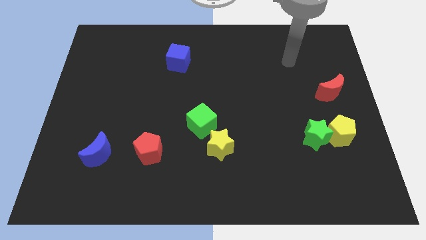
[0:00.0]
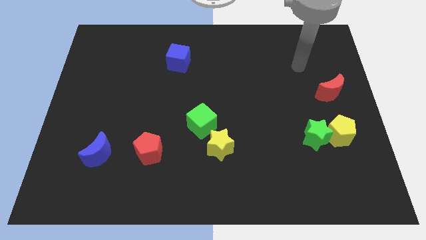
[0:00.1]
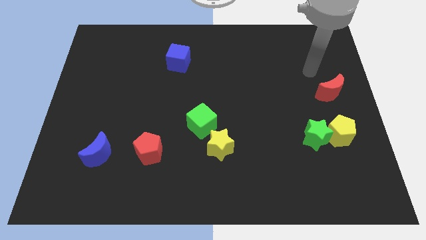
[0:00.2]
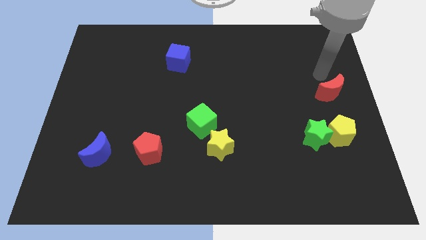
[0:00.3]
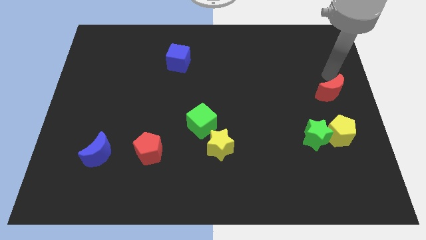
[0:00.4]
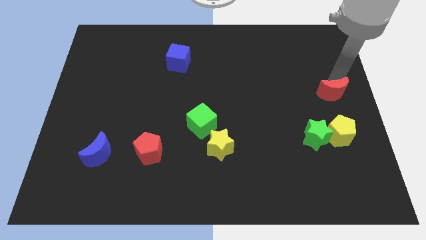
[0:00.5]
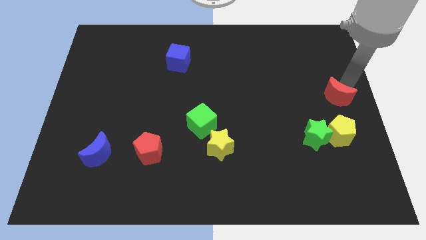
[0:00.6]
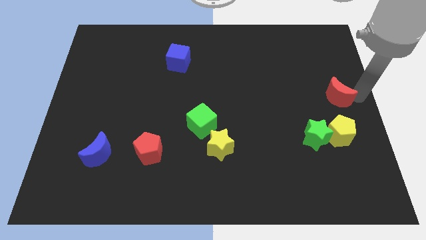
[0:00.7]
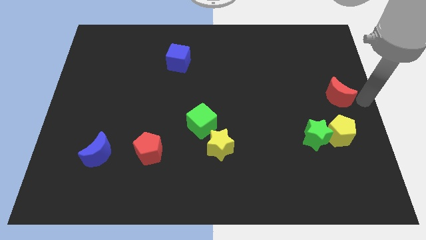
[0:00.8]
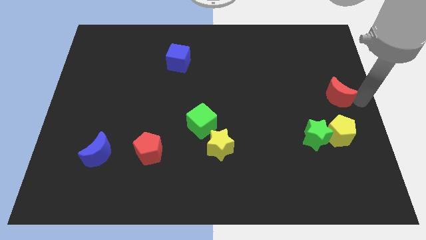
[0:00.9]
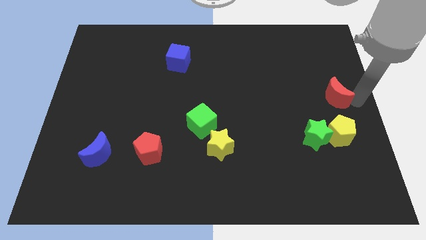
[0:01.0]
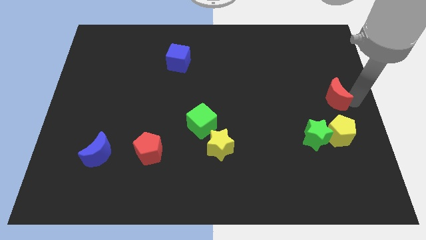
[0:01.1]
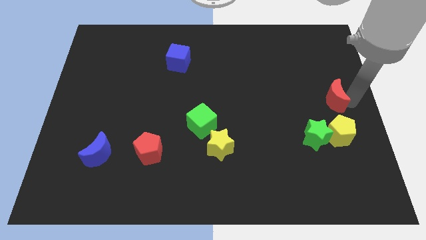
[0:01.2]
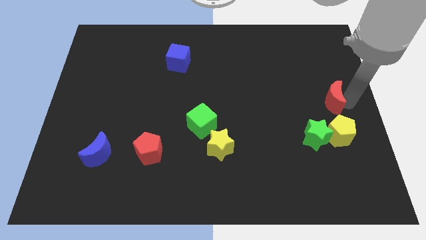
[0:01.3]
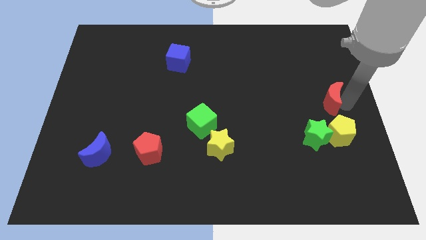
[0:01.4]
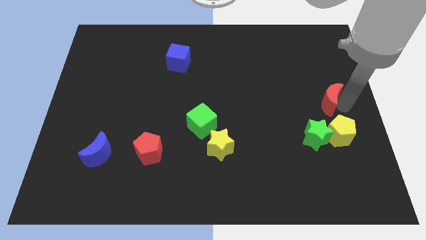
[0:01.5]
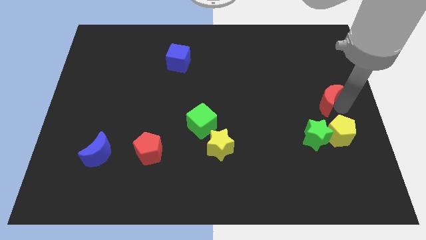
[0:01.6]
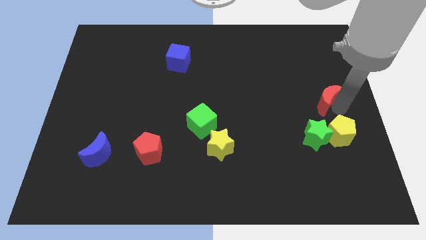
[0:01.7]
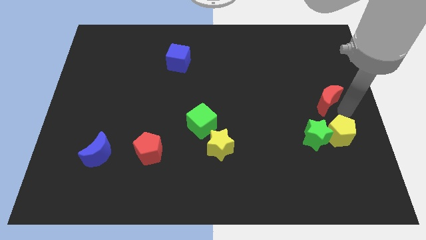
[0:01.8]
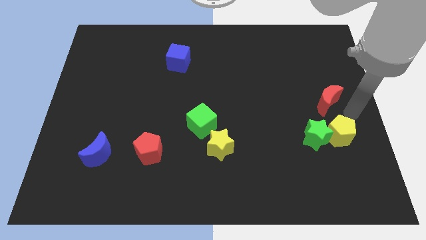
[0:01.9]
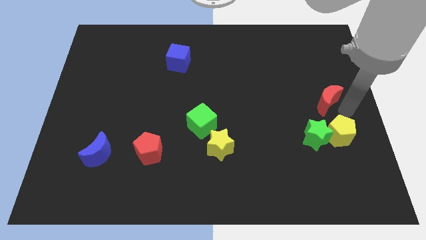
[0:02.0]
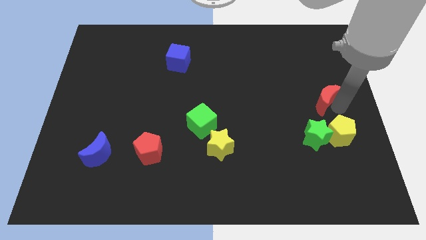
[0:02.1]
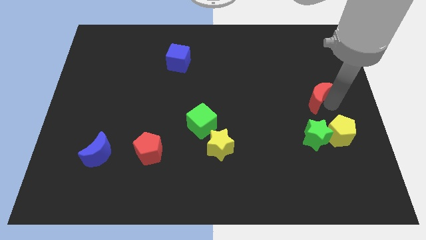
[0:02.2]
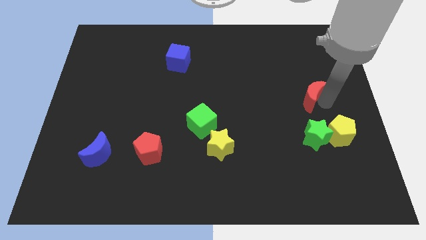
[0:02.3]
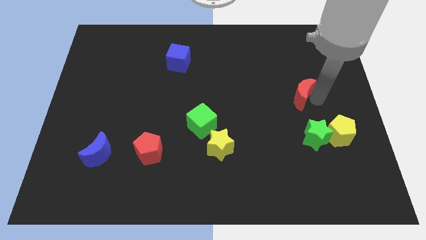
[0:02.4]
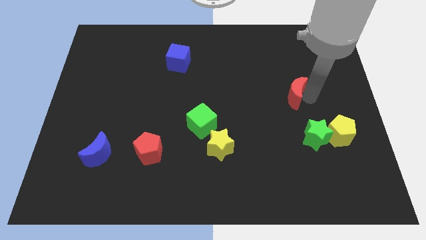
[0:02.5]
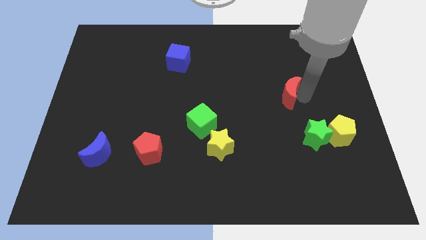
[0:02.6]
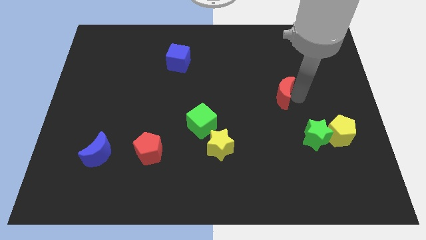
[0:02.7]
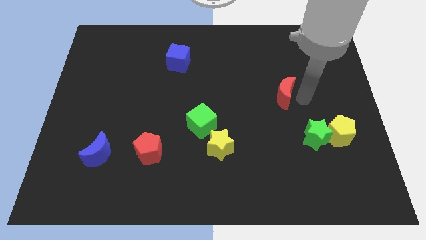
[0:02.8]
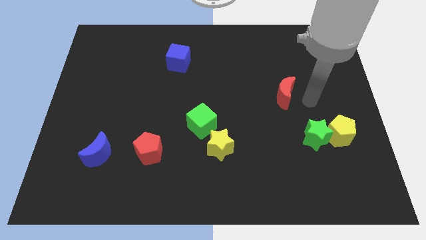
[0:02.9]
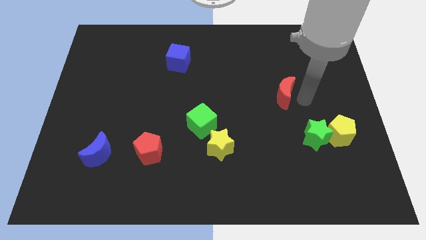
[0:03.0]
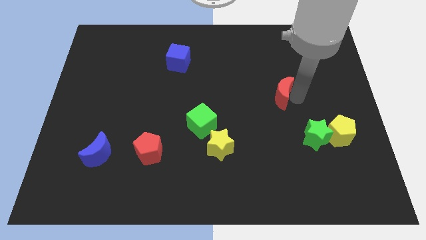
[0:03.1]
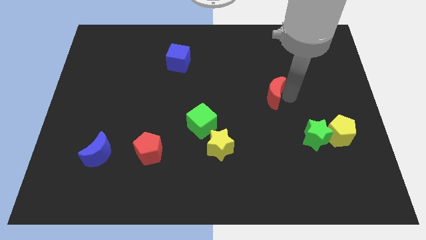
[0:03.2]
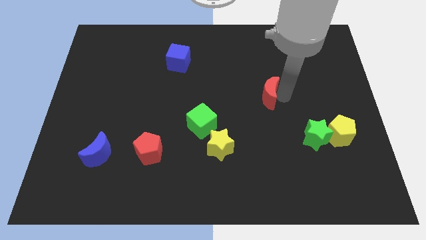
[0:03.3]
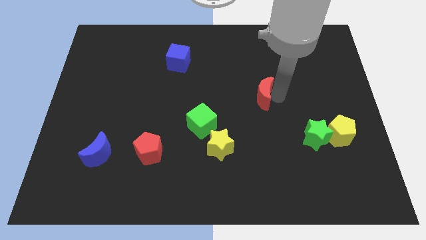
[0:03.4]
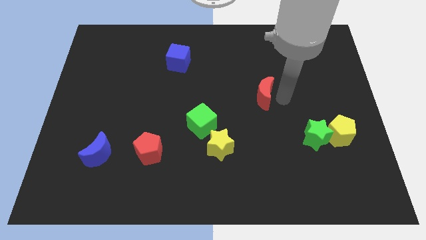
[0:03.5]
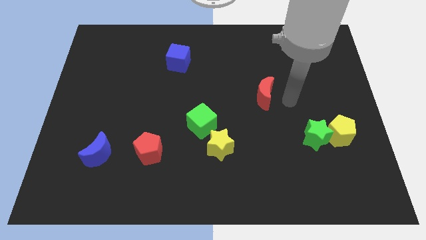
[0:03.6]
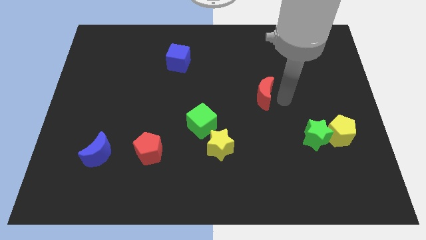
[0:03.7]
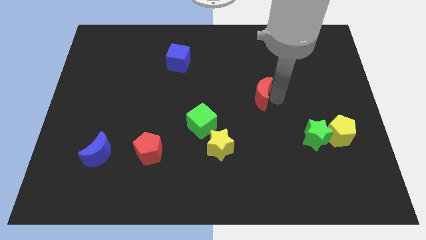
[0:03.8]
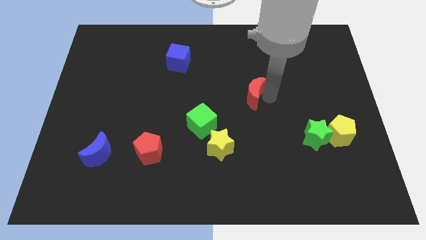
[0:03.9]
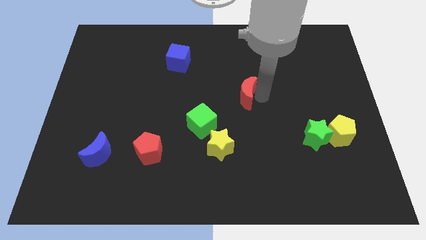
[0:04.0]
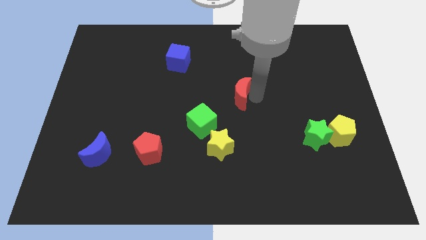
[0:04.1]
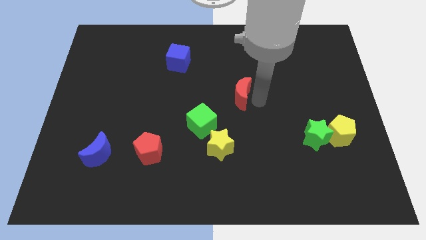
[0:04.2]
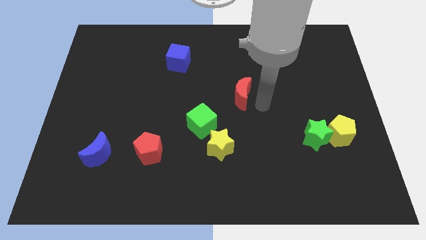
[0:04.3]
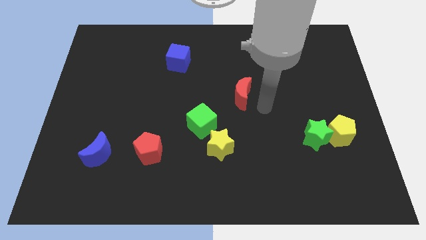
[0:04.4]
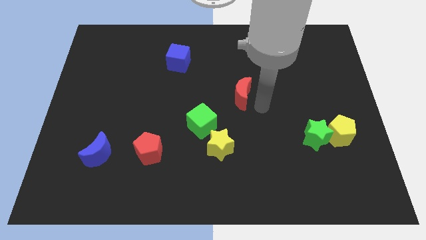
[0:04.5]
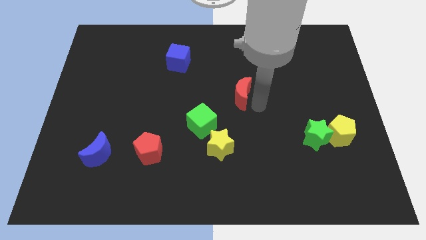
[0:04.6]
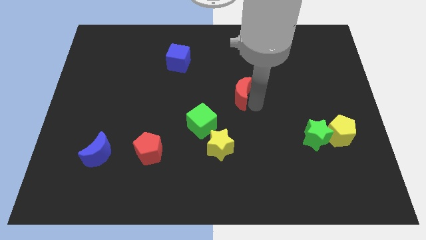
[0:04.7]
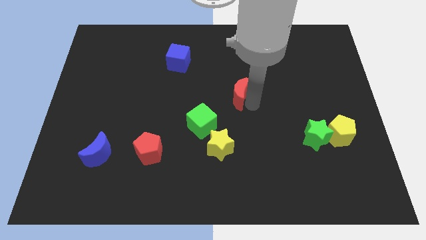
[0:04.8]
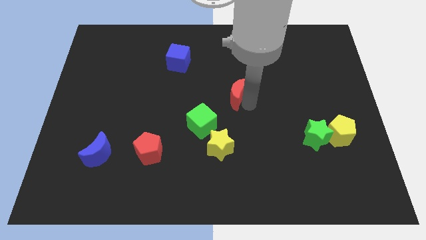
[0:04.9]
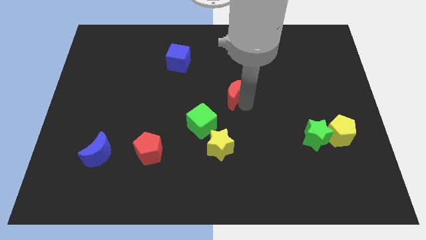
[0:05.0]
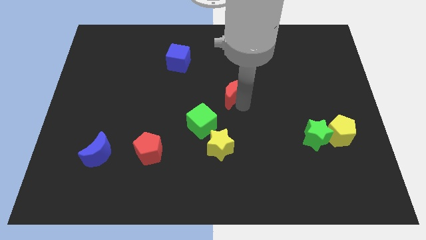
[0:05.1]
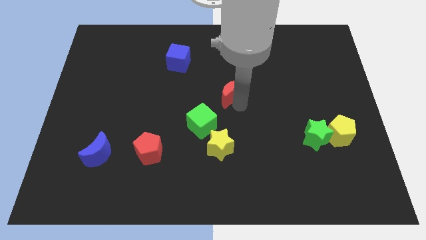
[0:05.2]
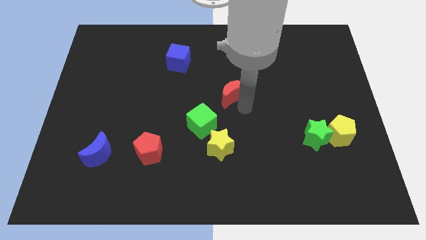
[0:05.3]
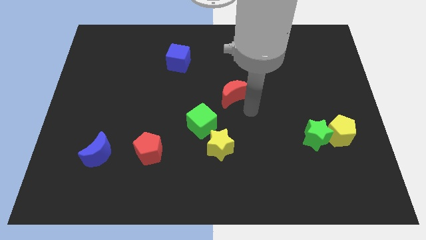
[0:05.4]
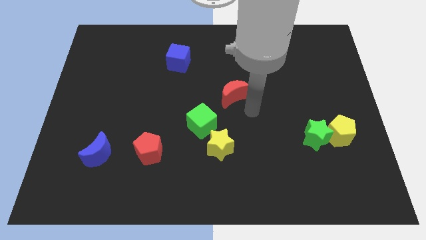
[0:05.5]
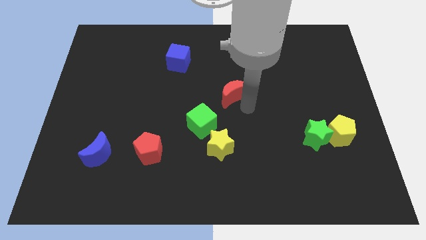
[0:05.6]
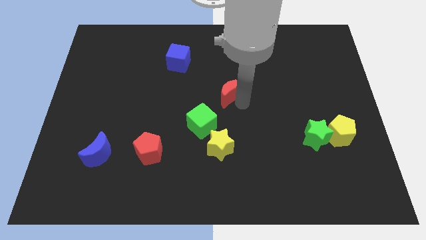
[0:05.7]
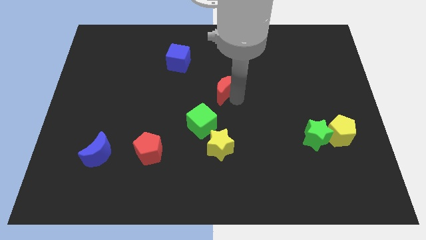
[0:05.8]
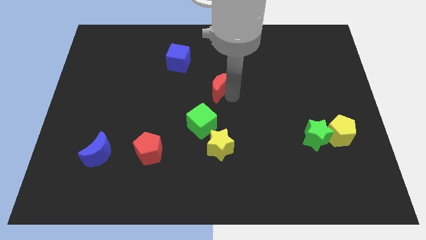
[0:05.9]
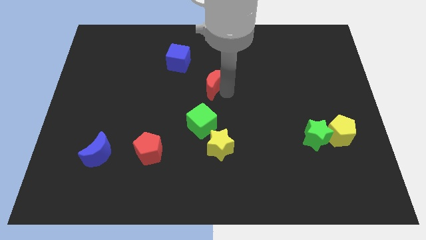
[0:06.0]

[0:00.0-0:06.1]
move the red moon to the bottom right side of the blue cube

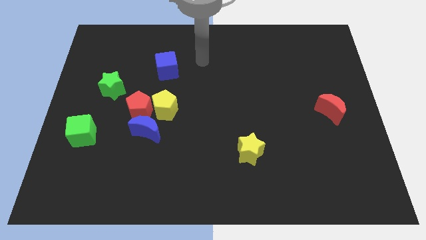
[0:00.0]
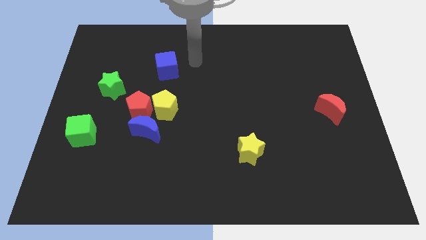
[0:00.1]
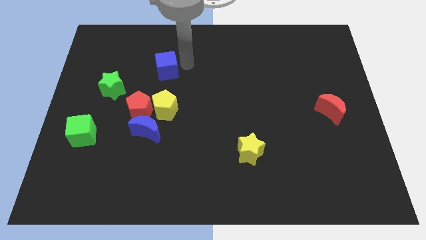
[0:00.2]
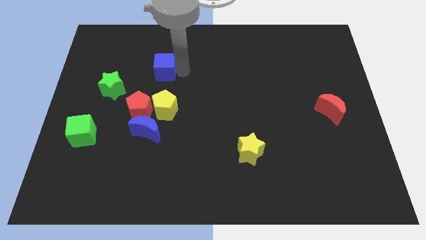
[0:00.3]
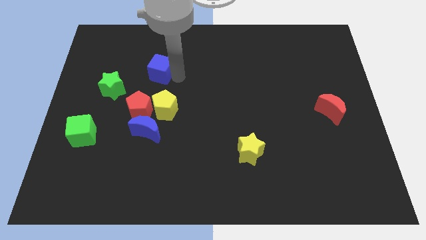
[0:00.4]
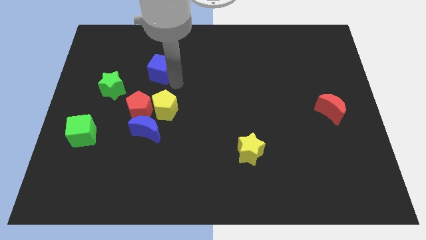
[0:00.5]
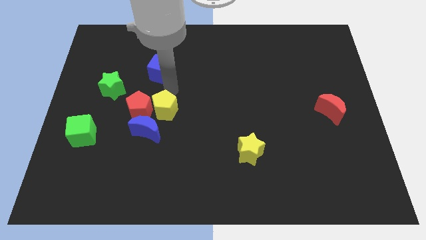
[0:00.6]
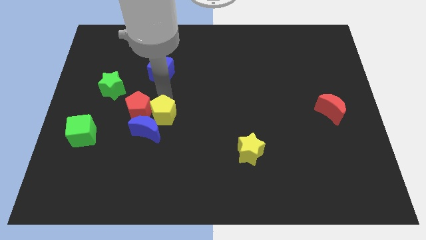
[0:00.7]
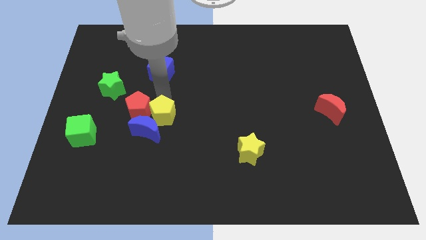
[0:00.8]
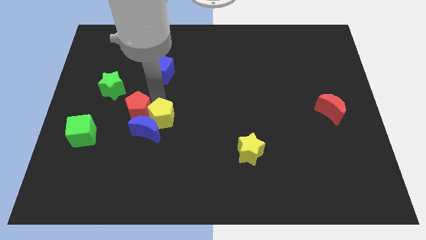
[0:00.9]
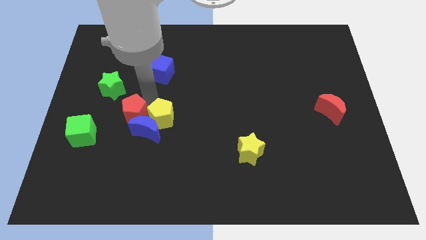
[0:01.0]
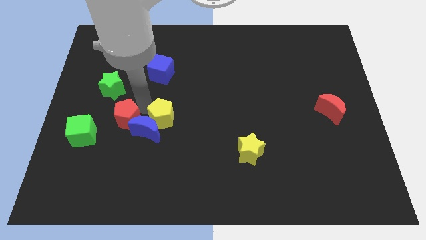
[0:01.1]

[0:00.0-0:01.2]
push the red pentagon left of the blue moon

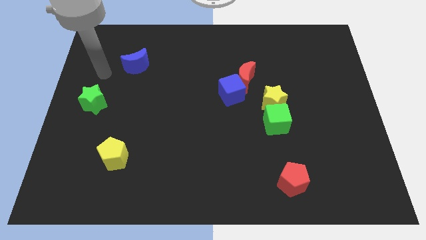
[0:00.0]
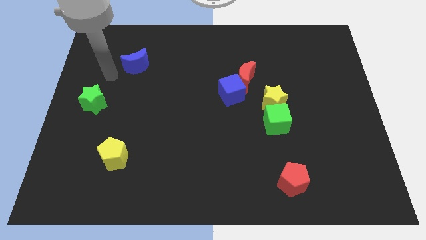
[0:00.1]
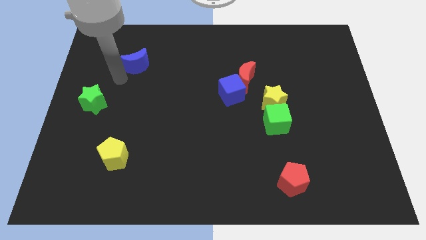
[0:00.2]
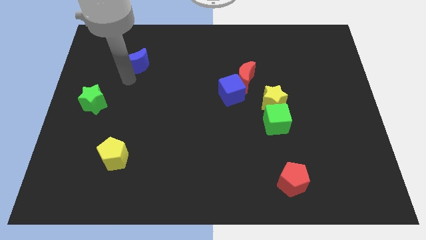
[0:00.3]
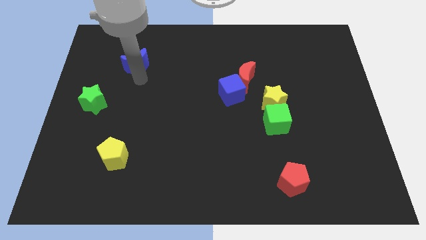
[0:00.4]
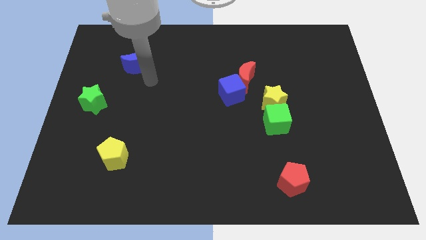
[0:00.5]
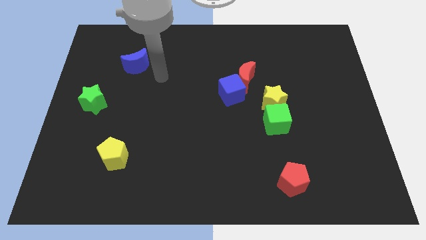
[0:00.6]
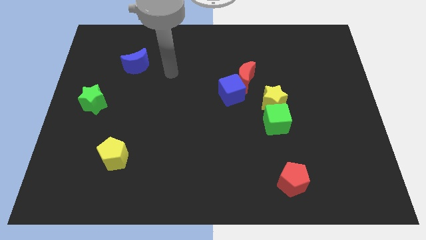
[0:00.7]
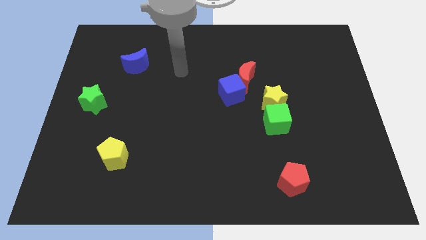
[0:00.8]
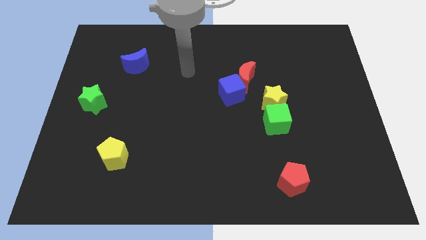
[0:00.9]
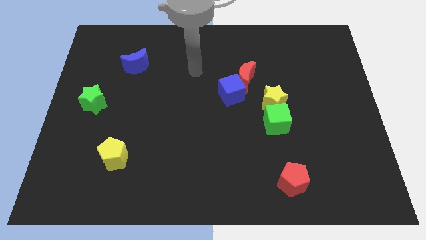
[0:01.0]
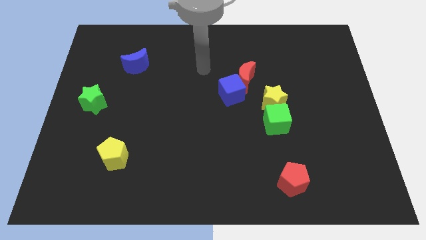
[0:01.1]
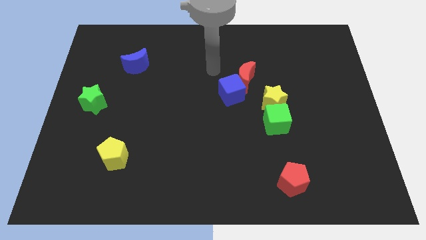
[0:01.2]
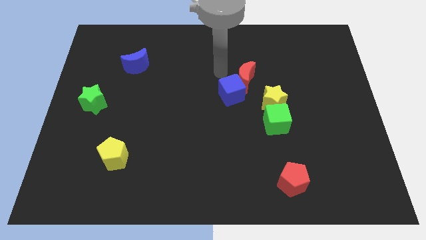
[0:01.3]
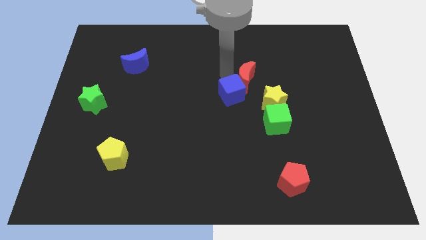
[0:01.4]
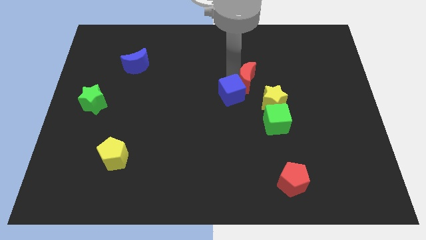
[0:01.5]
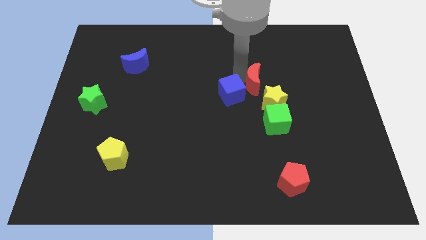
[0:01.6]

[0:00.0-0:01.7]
put the red moon to the top side of the green cube
